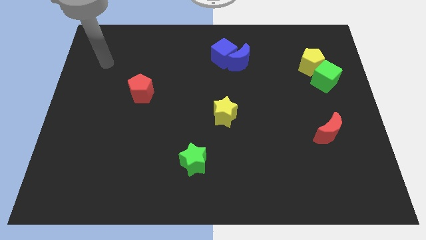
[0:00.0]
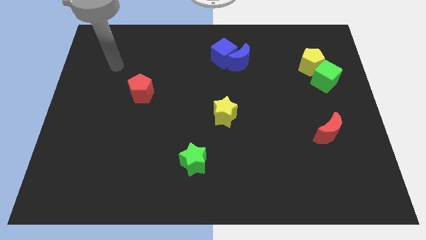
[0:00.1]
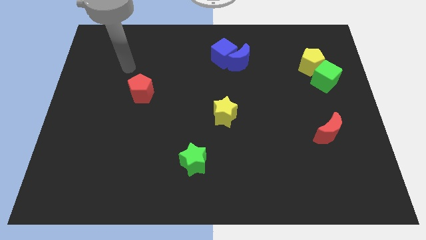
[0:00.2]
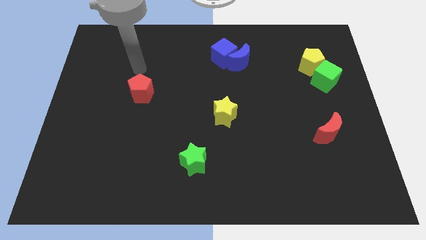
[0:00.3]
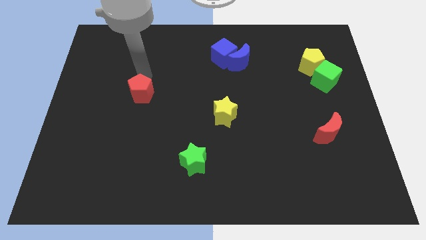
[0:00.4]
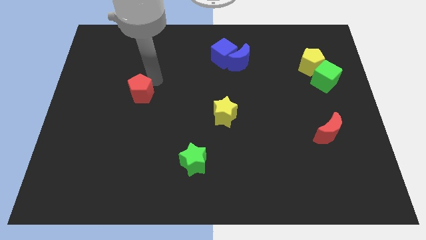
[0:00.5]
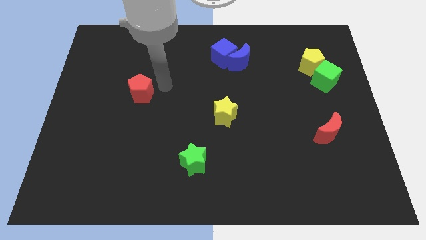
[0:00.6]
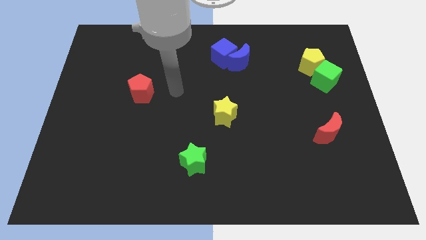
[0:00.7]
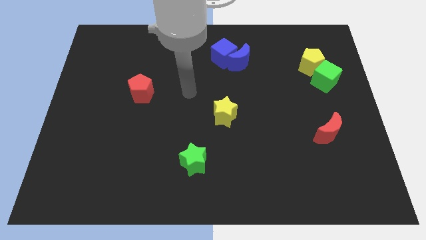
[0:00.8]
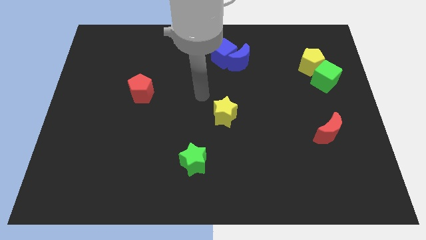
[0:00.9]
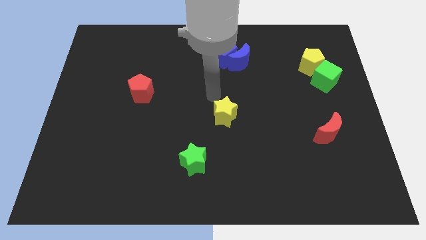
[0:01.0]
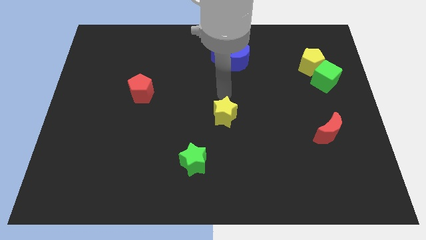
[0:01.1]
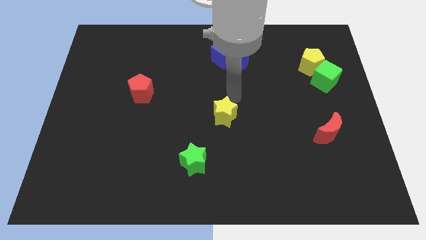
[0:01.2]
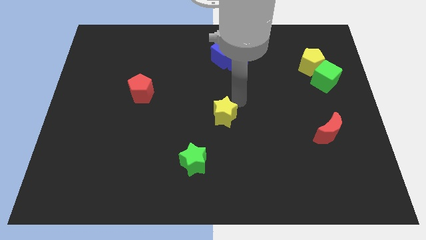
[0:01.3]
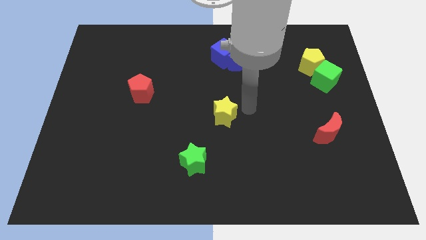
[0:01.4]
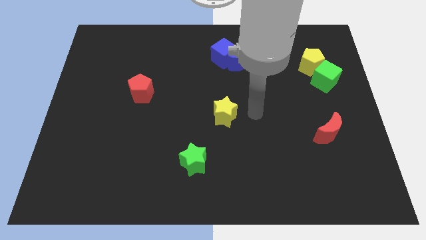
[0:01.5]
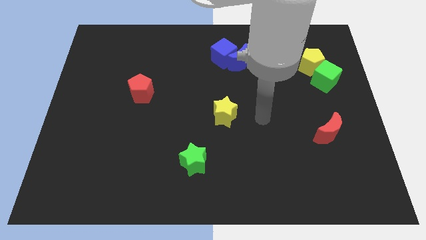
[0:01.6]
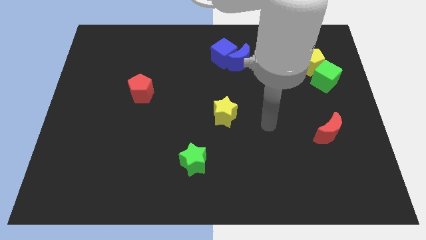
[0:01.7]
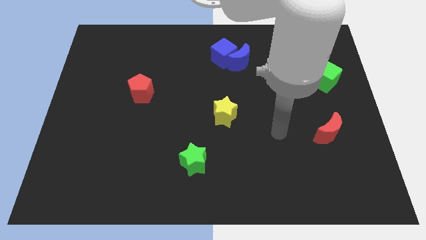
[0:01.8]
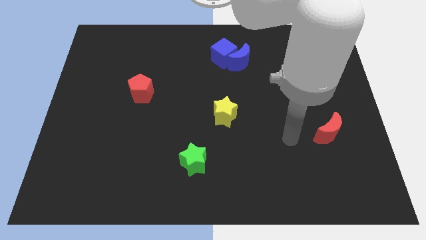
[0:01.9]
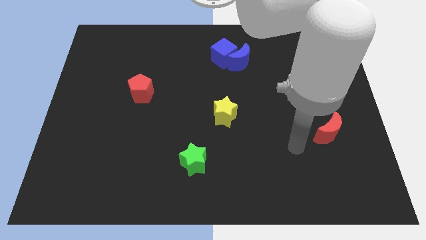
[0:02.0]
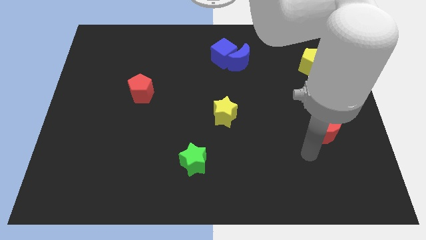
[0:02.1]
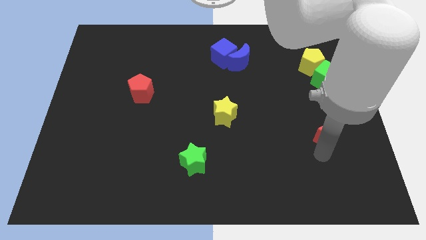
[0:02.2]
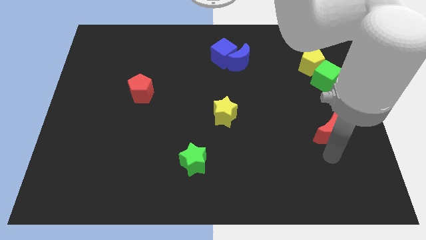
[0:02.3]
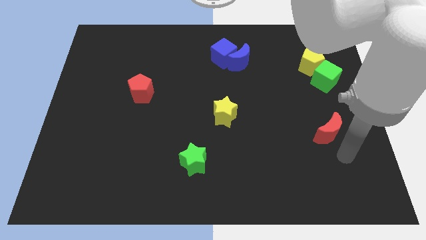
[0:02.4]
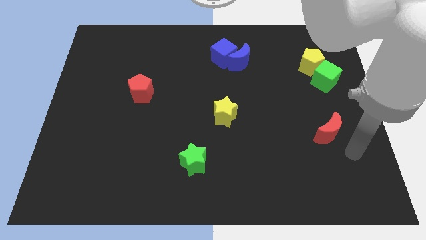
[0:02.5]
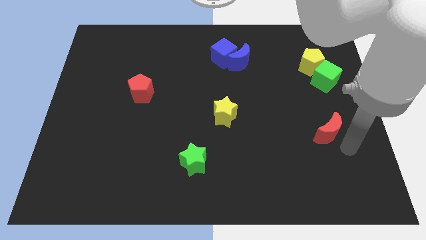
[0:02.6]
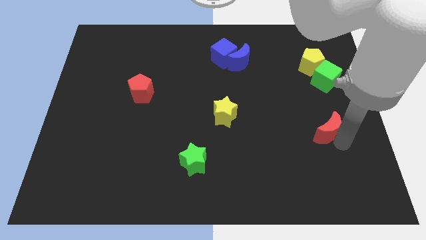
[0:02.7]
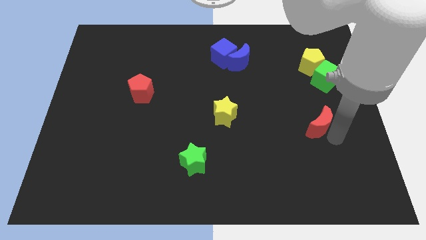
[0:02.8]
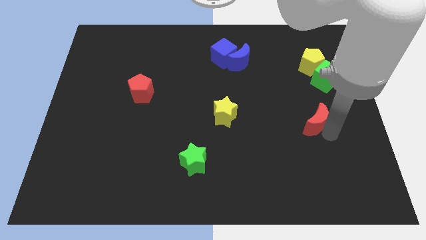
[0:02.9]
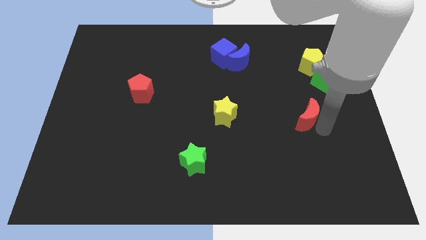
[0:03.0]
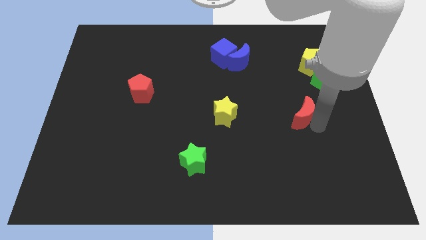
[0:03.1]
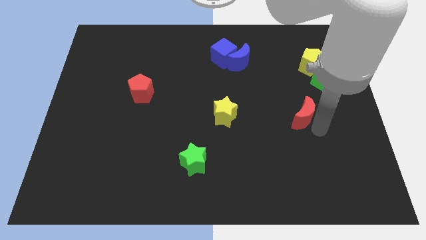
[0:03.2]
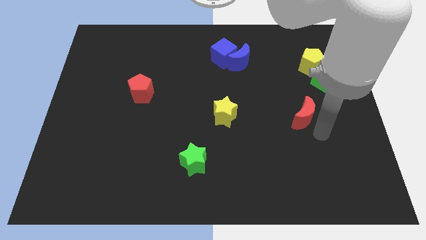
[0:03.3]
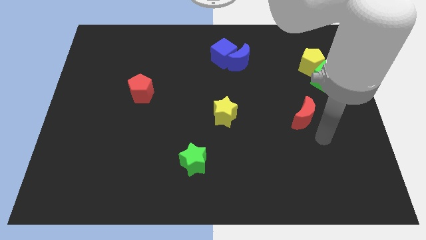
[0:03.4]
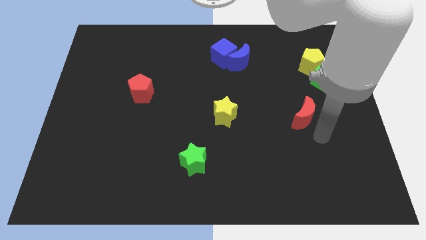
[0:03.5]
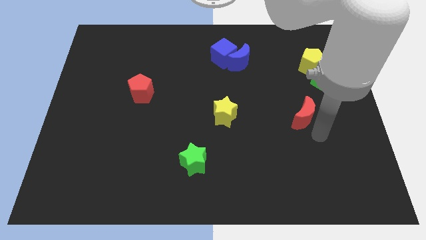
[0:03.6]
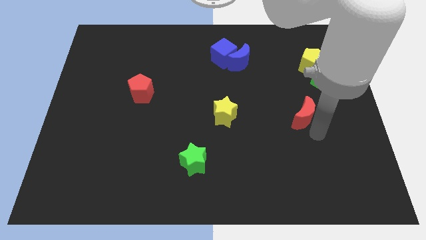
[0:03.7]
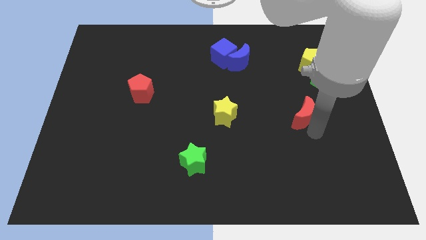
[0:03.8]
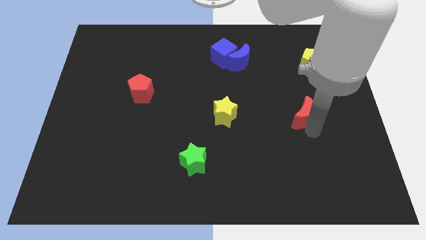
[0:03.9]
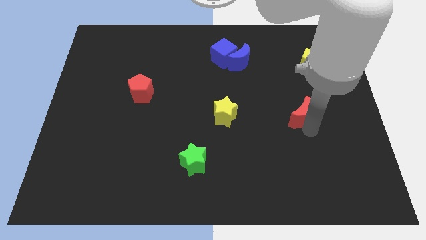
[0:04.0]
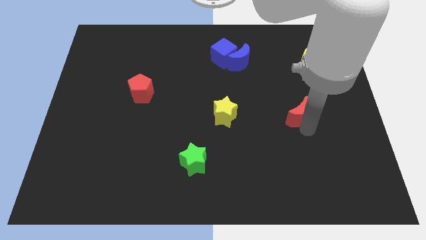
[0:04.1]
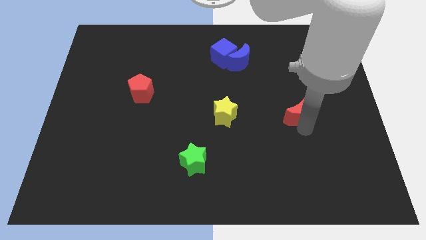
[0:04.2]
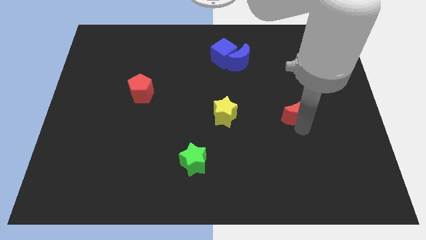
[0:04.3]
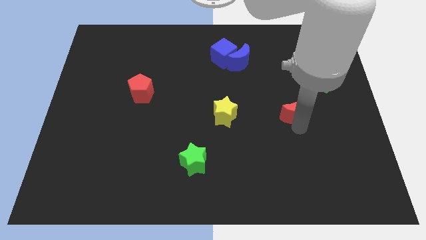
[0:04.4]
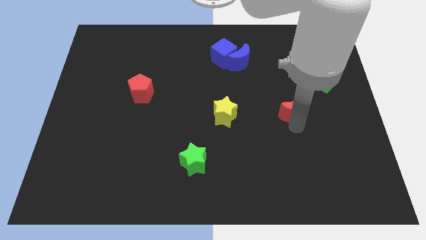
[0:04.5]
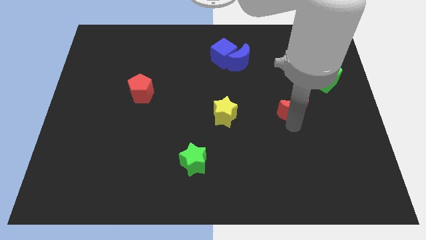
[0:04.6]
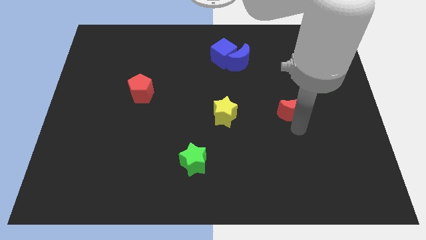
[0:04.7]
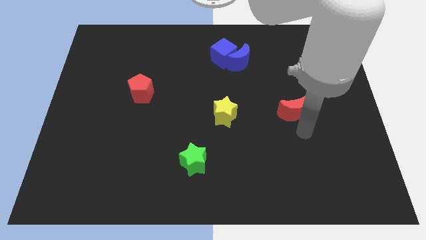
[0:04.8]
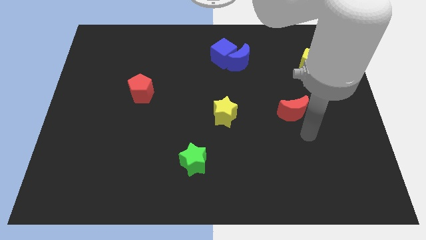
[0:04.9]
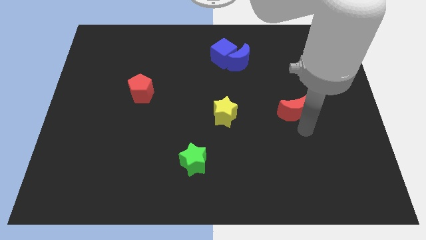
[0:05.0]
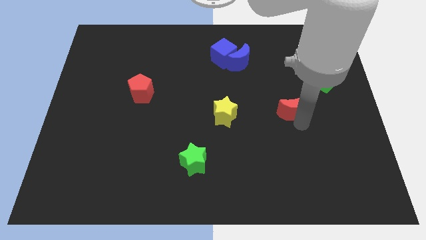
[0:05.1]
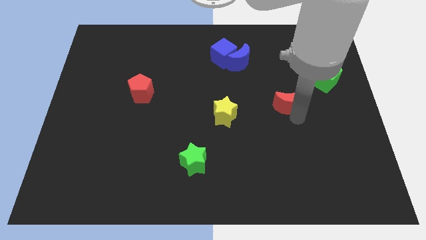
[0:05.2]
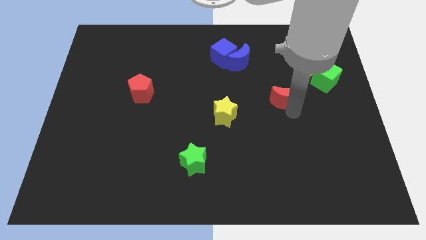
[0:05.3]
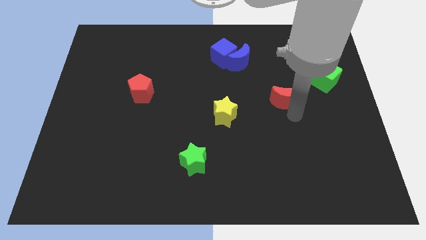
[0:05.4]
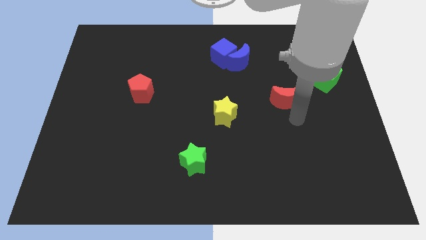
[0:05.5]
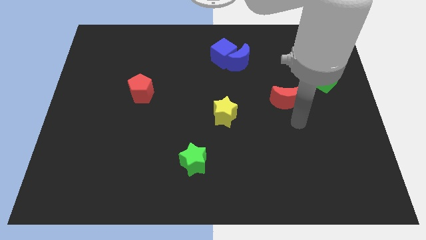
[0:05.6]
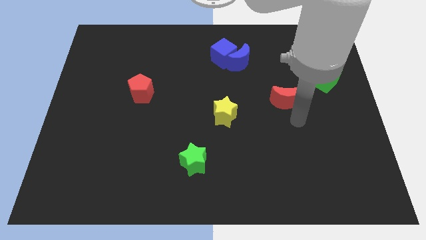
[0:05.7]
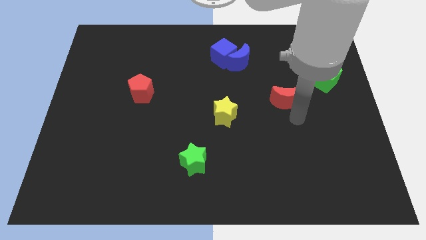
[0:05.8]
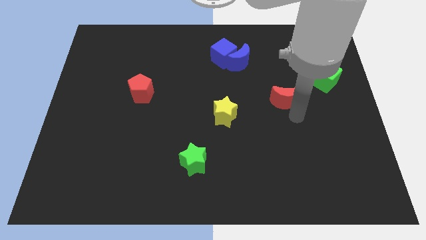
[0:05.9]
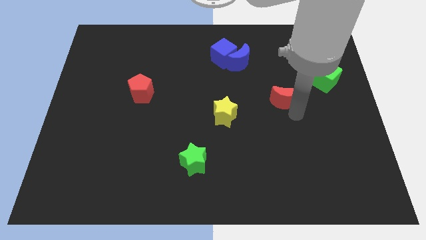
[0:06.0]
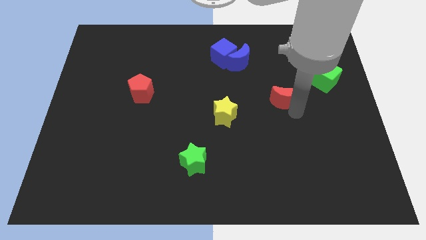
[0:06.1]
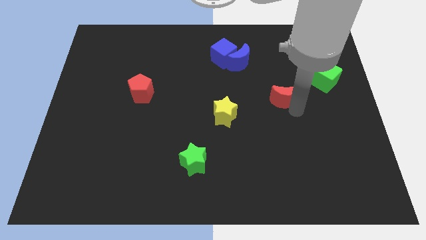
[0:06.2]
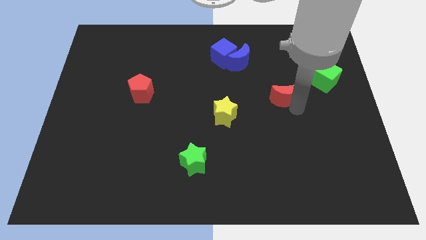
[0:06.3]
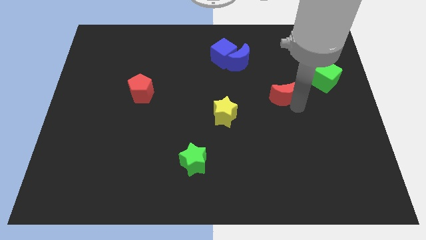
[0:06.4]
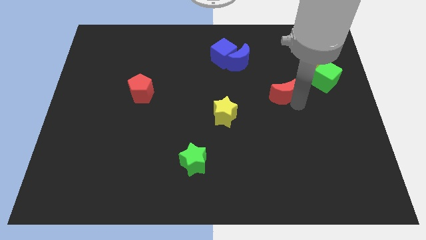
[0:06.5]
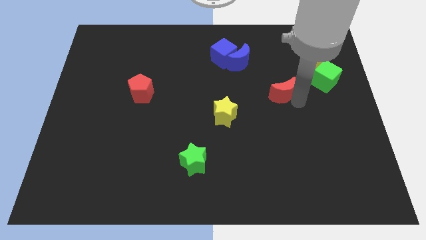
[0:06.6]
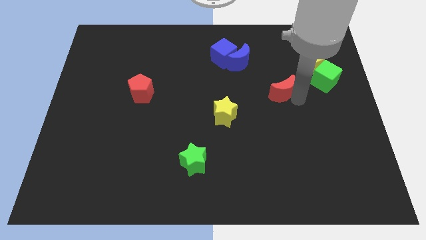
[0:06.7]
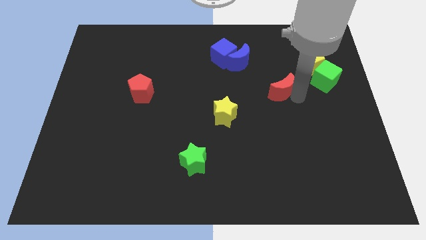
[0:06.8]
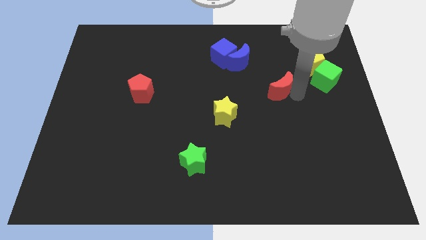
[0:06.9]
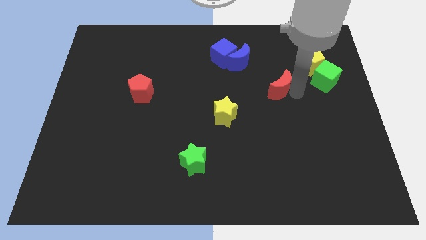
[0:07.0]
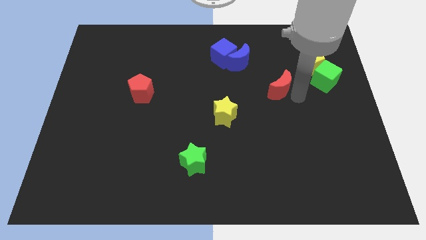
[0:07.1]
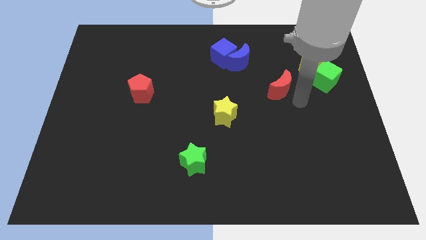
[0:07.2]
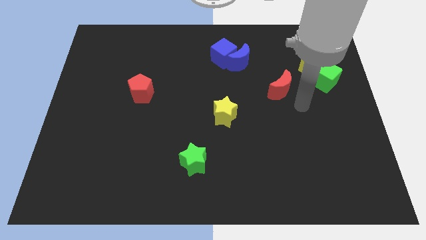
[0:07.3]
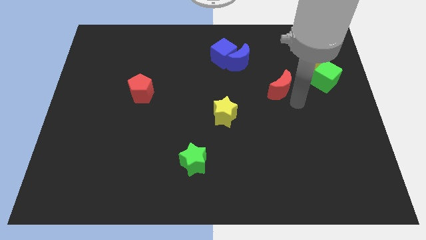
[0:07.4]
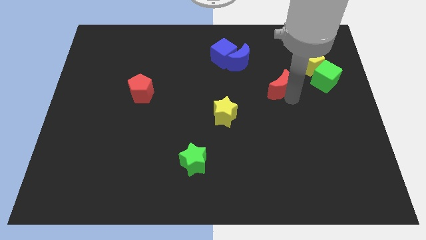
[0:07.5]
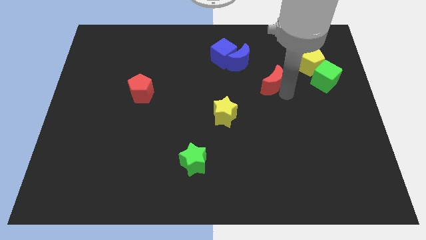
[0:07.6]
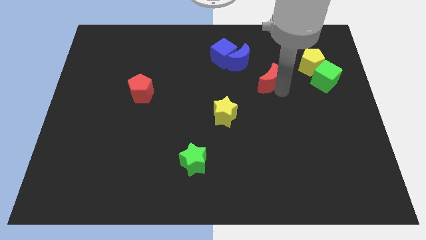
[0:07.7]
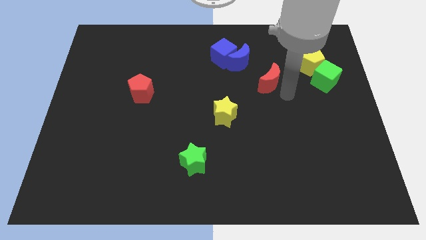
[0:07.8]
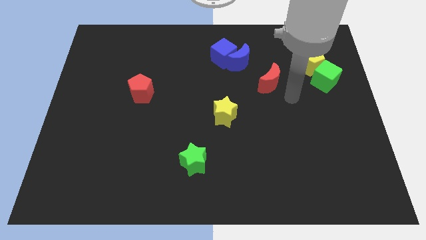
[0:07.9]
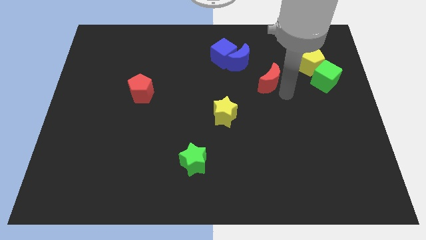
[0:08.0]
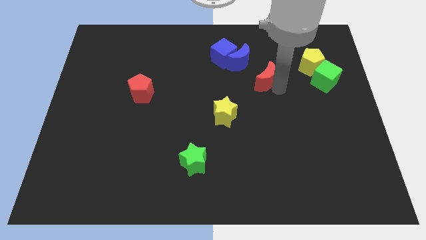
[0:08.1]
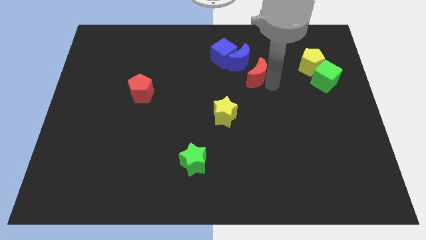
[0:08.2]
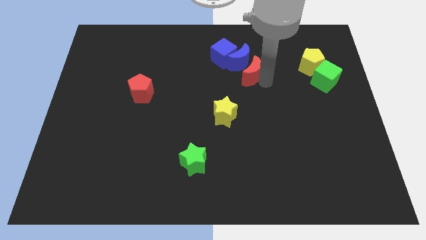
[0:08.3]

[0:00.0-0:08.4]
slide the red moon towards the blue moon
